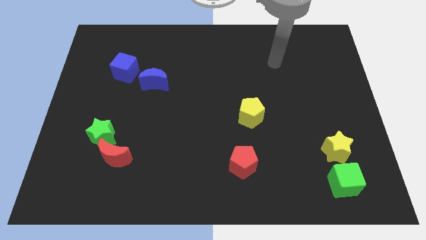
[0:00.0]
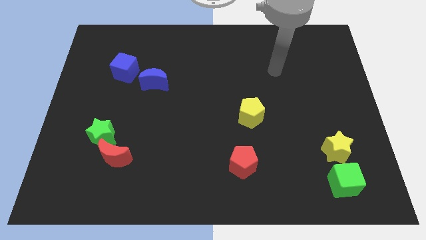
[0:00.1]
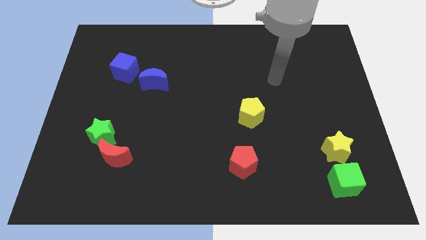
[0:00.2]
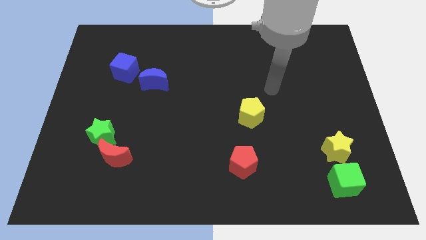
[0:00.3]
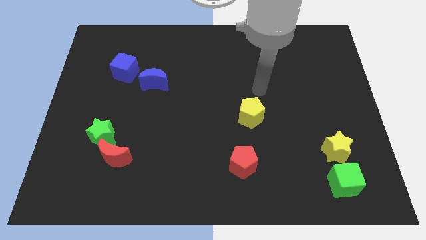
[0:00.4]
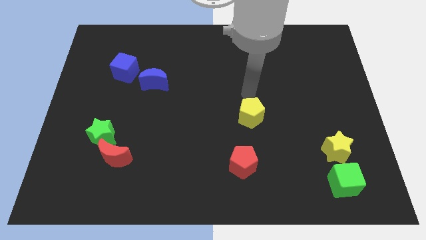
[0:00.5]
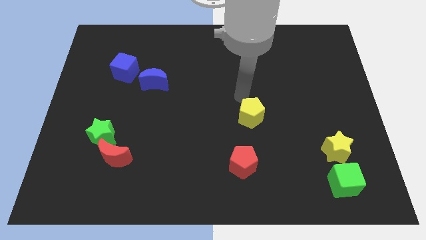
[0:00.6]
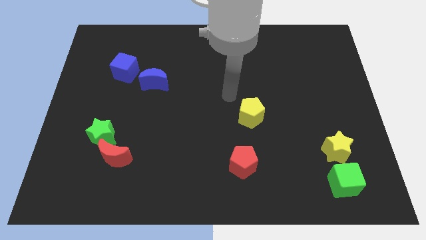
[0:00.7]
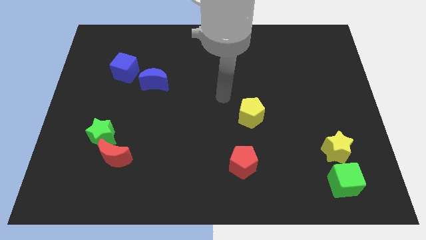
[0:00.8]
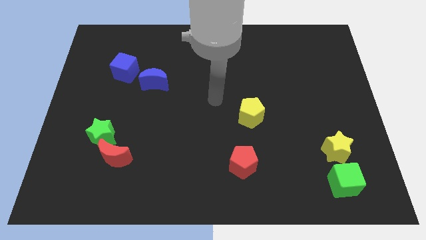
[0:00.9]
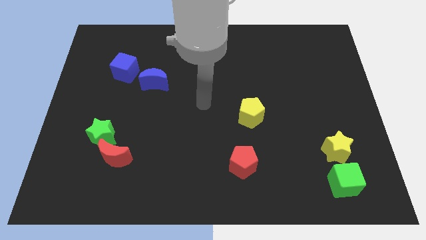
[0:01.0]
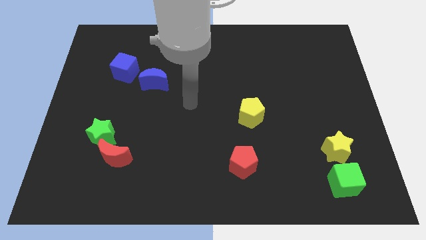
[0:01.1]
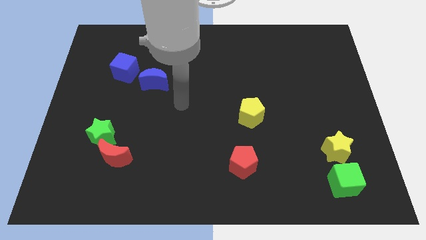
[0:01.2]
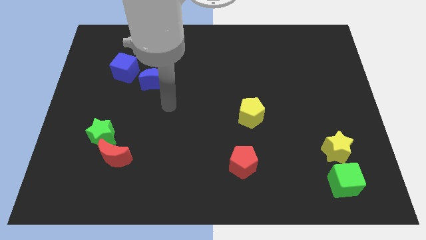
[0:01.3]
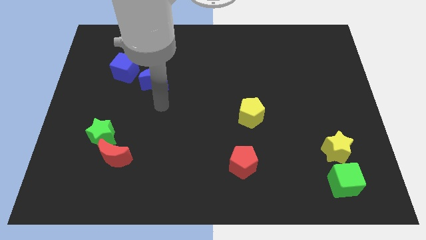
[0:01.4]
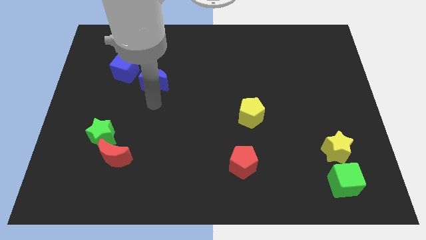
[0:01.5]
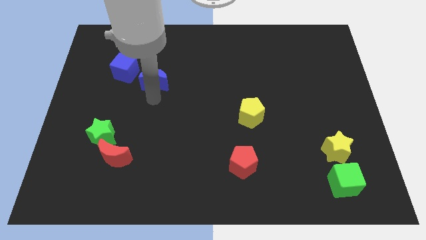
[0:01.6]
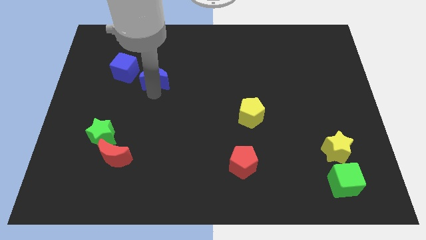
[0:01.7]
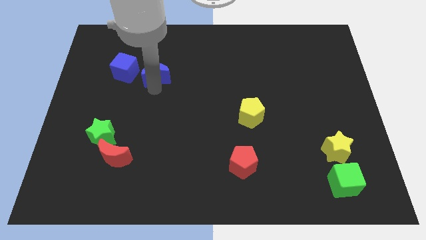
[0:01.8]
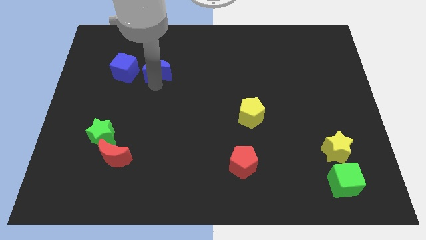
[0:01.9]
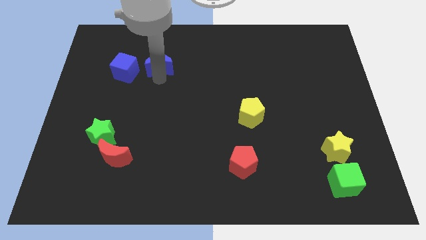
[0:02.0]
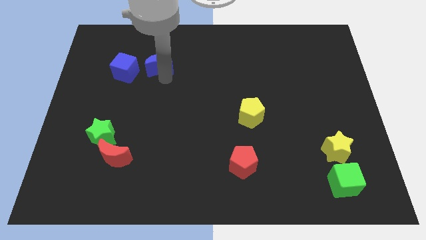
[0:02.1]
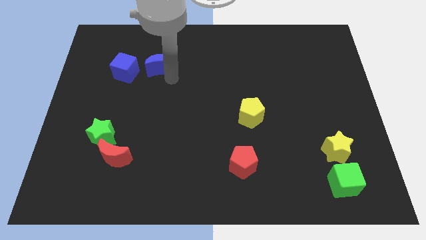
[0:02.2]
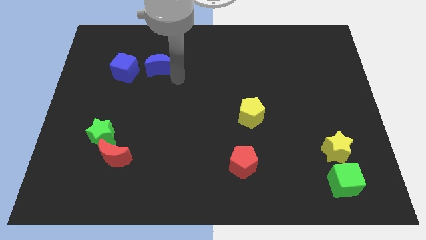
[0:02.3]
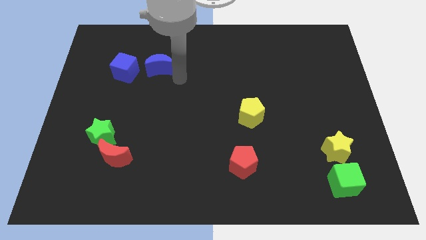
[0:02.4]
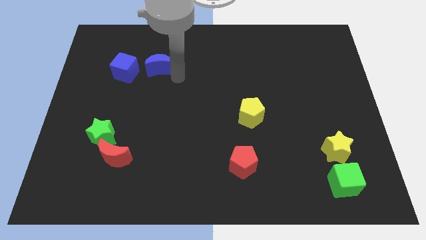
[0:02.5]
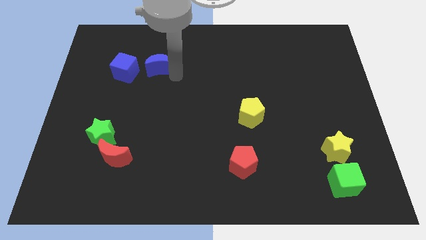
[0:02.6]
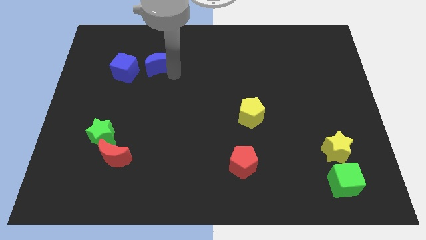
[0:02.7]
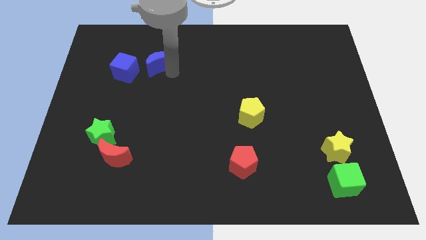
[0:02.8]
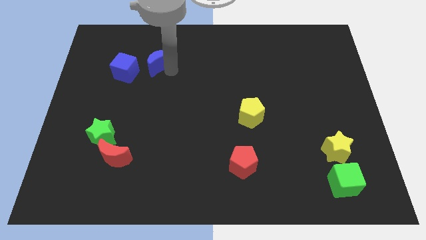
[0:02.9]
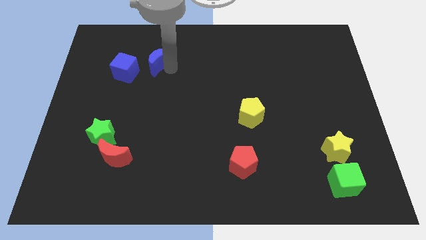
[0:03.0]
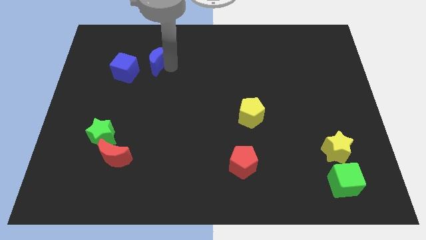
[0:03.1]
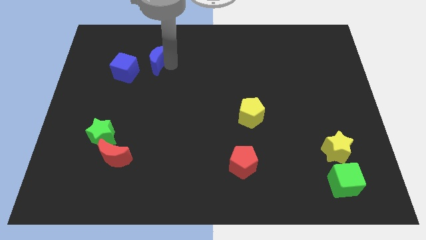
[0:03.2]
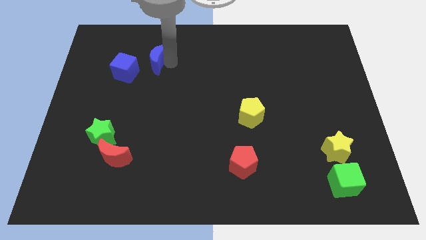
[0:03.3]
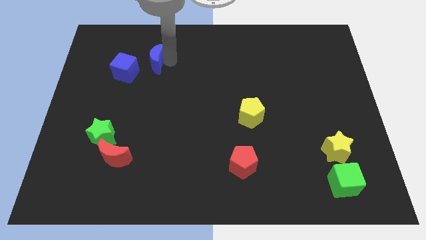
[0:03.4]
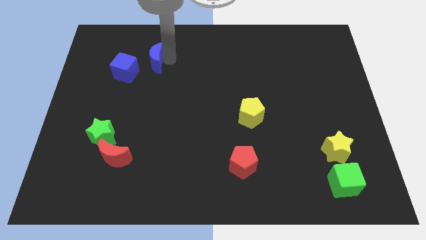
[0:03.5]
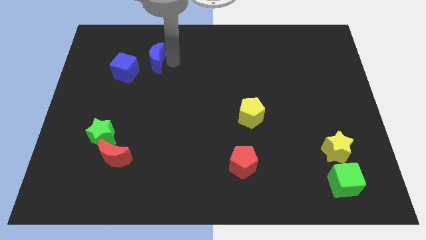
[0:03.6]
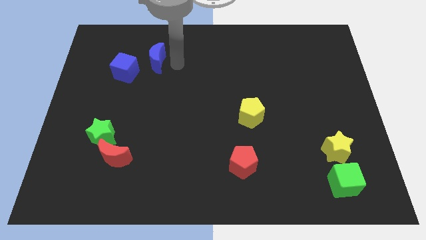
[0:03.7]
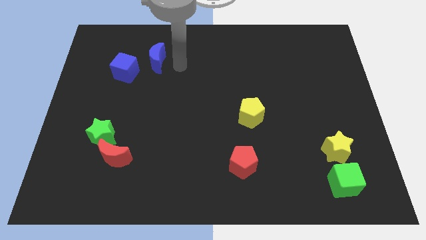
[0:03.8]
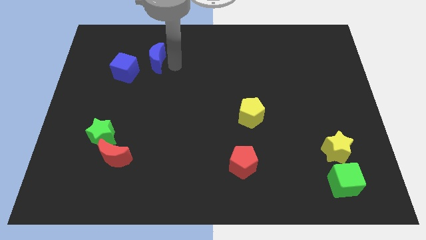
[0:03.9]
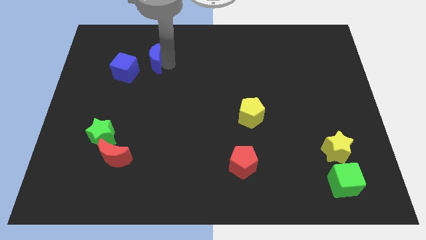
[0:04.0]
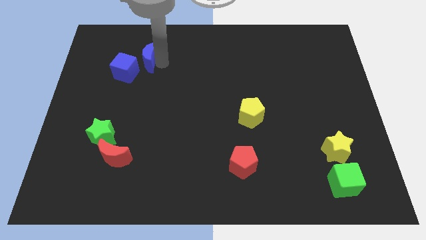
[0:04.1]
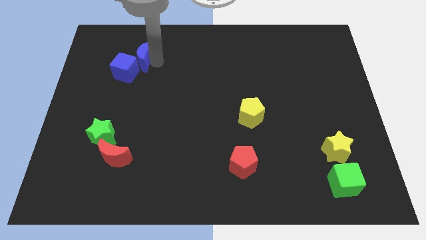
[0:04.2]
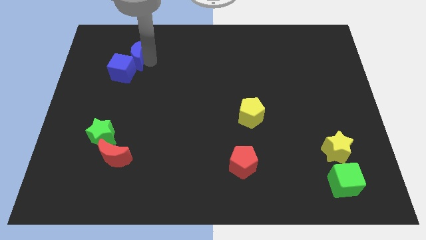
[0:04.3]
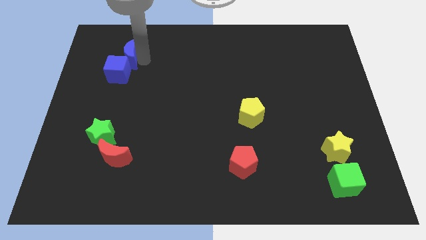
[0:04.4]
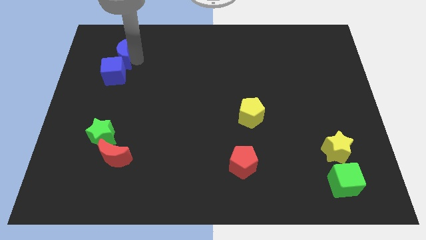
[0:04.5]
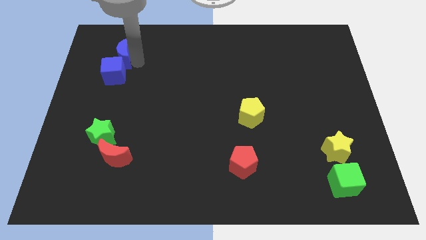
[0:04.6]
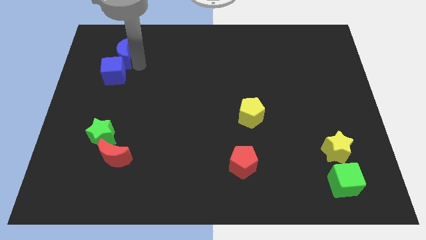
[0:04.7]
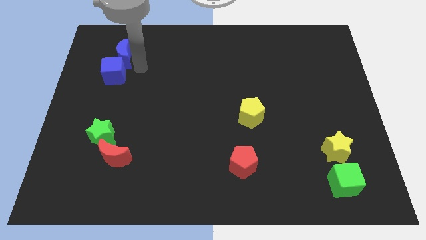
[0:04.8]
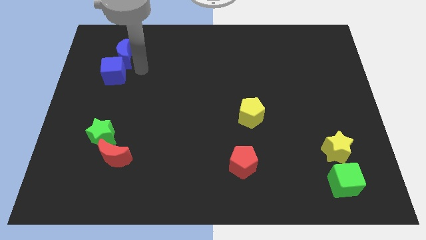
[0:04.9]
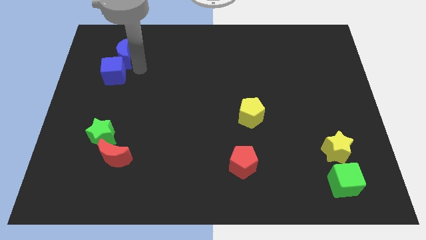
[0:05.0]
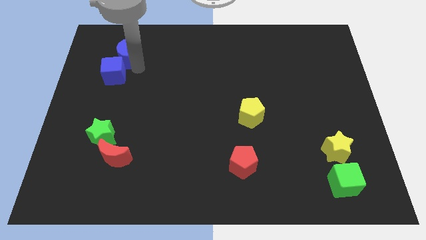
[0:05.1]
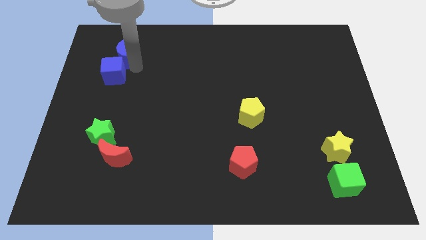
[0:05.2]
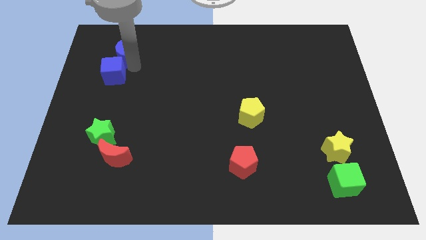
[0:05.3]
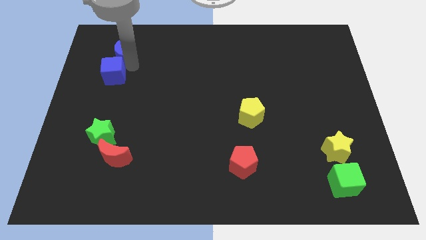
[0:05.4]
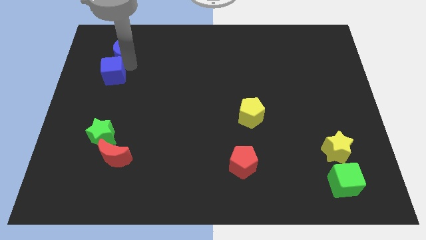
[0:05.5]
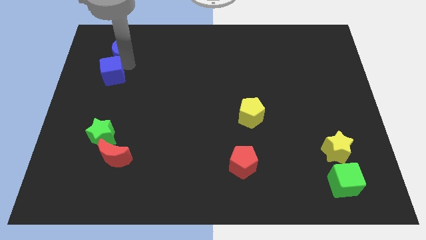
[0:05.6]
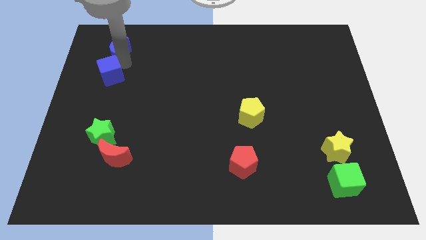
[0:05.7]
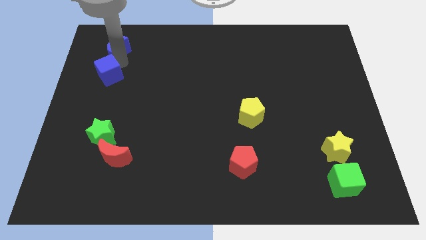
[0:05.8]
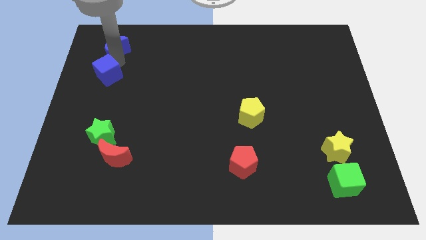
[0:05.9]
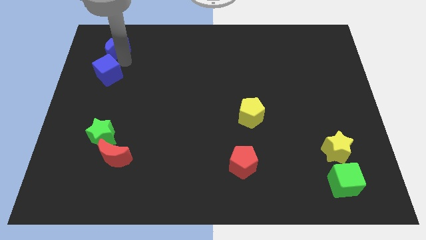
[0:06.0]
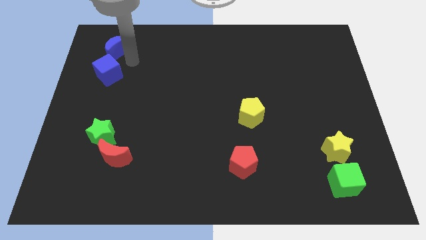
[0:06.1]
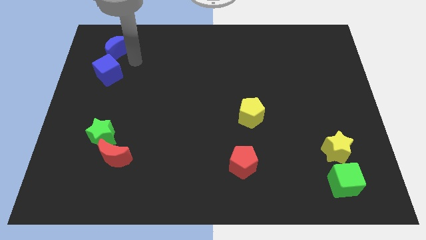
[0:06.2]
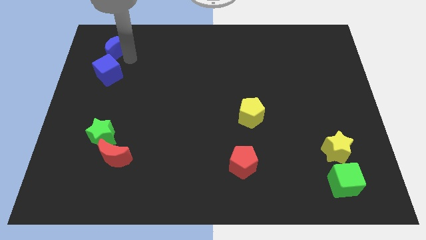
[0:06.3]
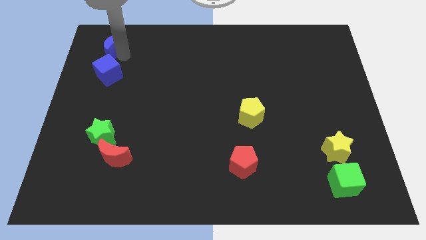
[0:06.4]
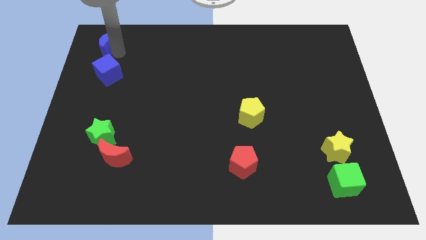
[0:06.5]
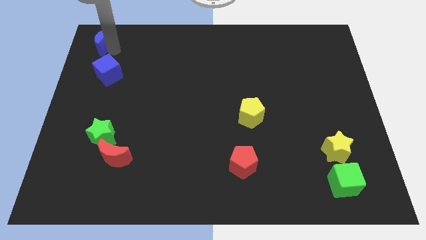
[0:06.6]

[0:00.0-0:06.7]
put the blue moon to the top left
